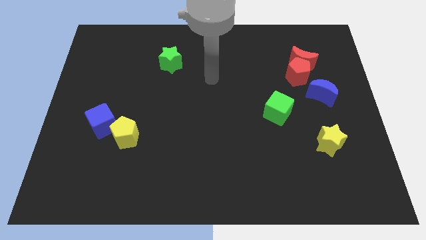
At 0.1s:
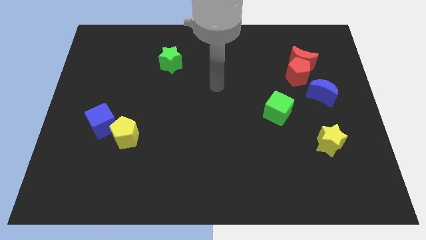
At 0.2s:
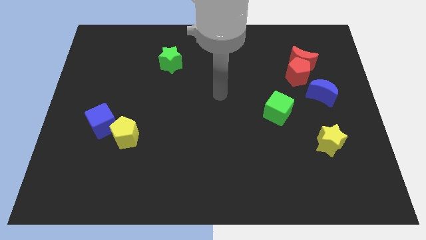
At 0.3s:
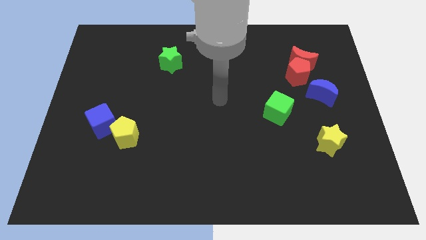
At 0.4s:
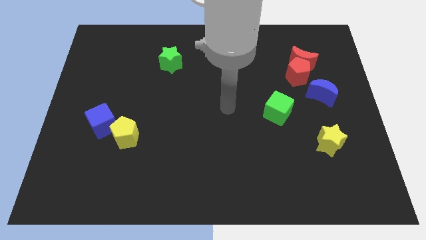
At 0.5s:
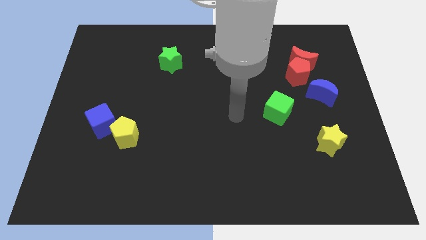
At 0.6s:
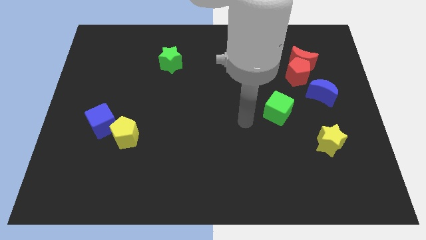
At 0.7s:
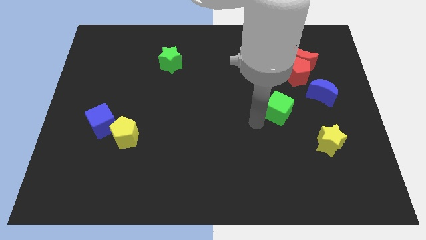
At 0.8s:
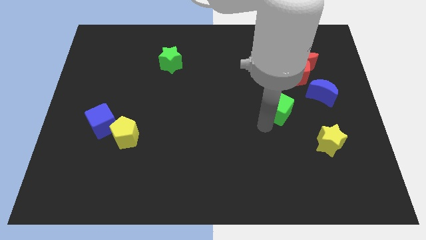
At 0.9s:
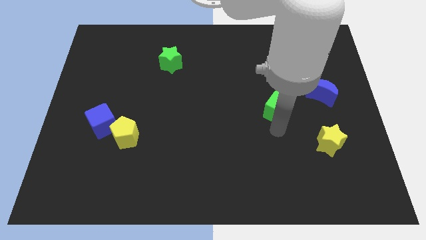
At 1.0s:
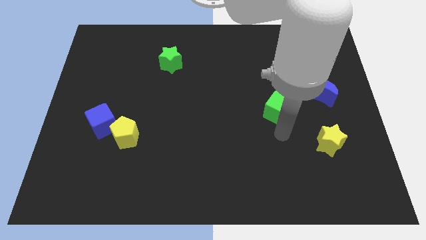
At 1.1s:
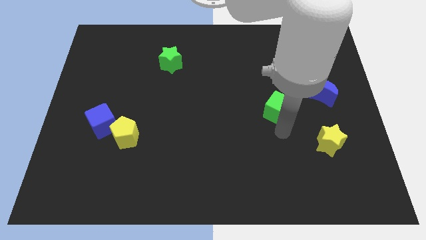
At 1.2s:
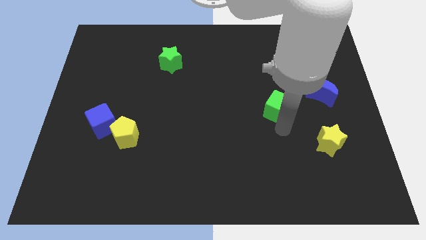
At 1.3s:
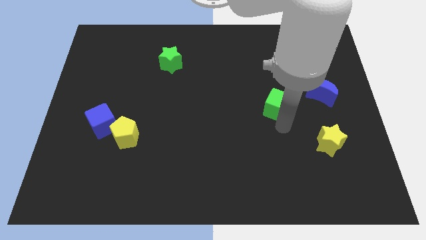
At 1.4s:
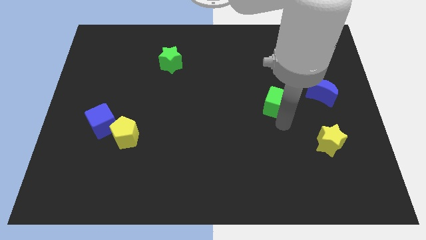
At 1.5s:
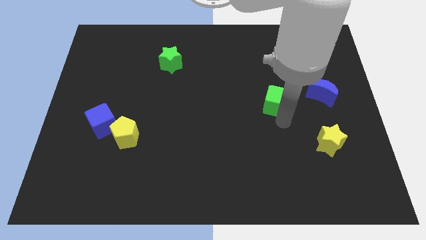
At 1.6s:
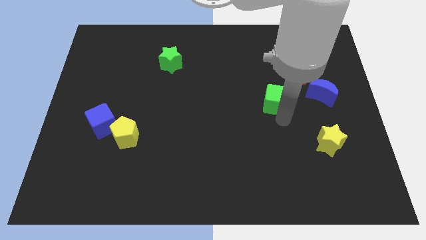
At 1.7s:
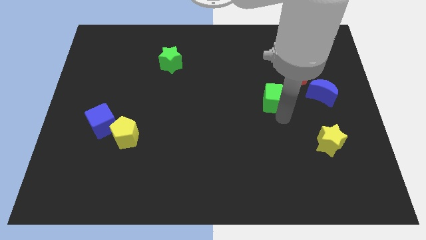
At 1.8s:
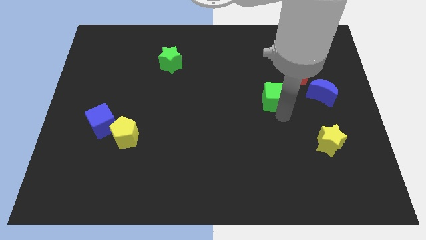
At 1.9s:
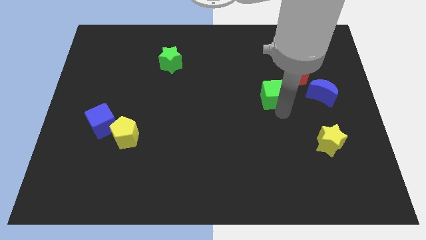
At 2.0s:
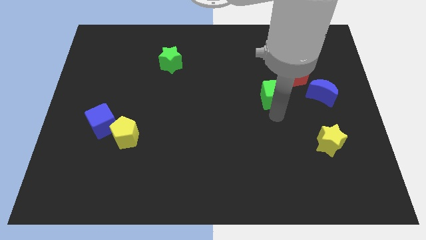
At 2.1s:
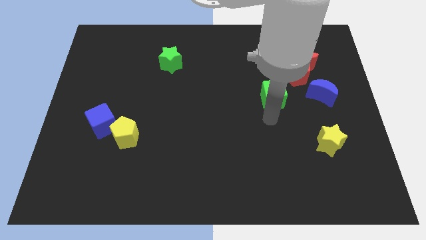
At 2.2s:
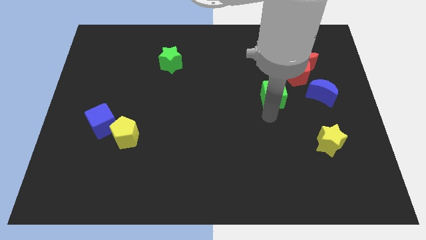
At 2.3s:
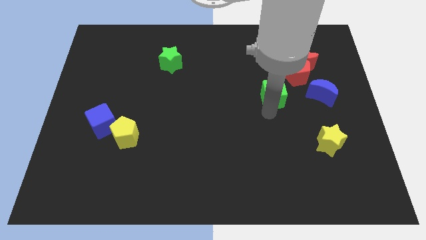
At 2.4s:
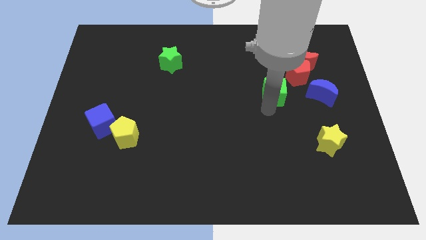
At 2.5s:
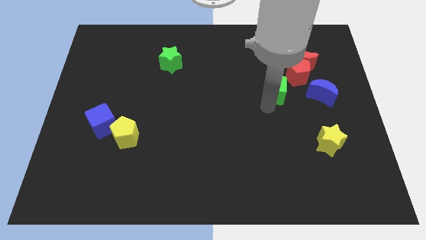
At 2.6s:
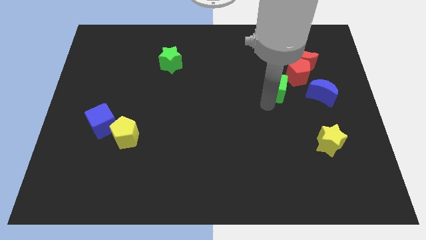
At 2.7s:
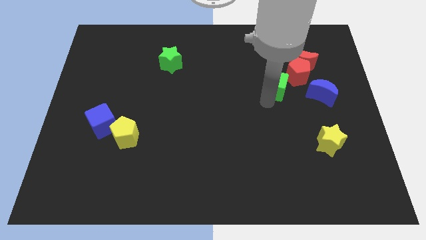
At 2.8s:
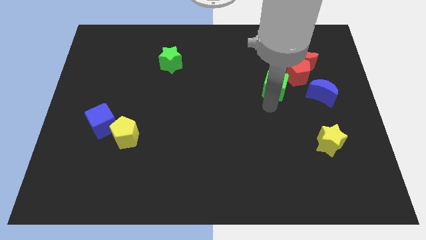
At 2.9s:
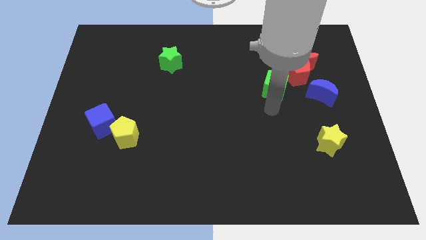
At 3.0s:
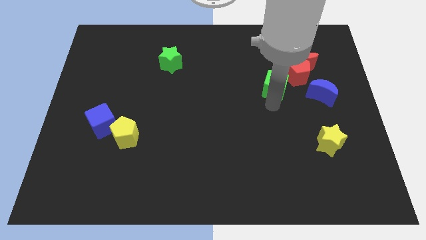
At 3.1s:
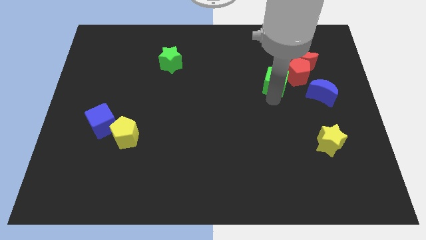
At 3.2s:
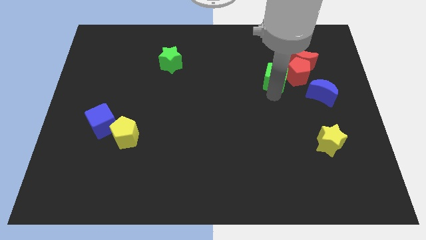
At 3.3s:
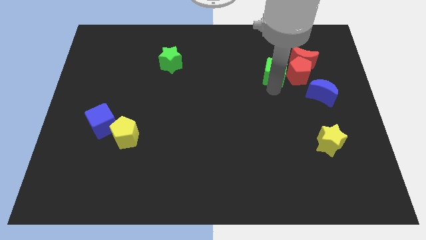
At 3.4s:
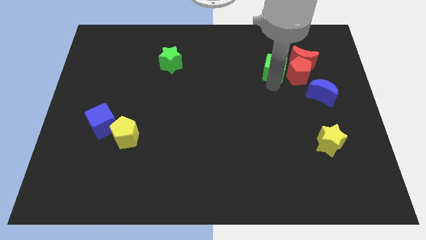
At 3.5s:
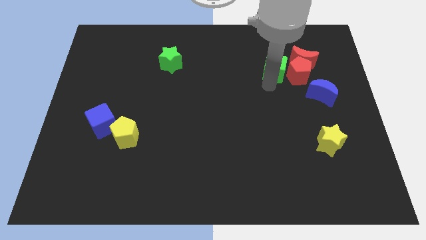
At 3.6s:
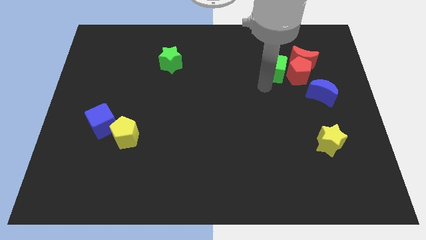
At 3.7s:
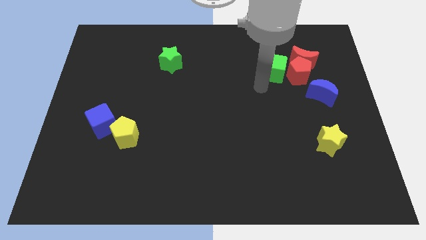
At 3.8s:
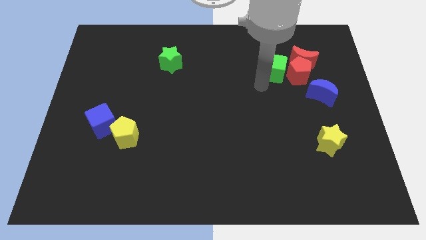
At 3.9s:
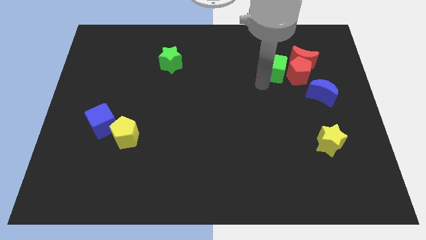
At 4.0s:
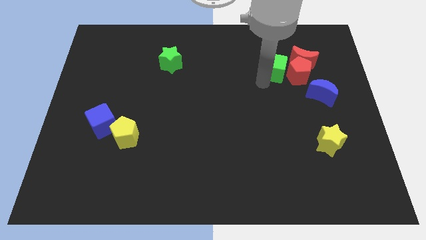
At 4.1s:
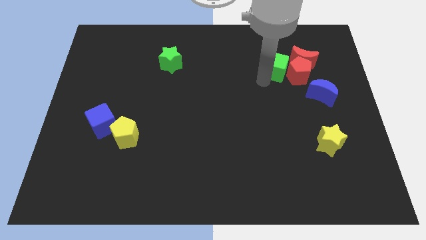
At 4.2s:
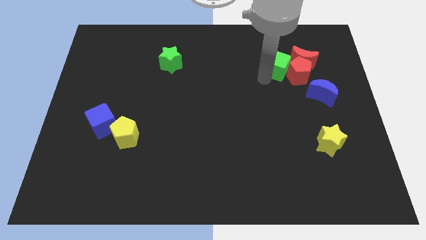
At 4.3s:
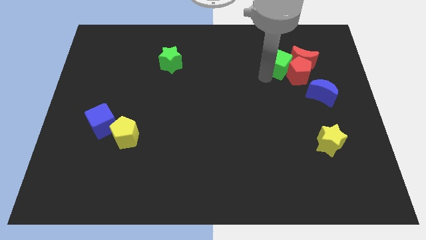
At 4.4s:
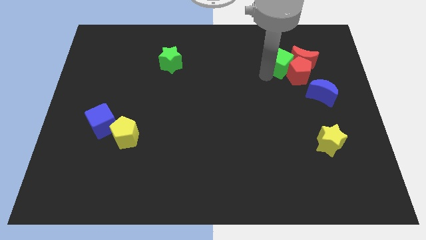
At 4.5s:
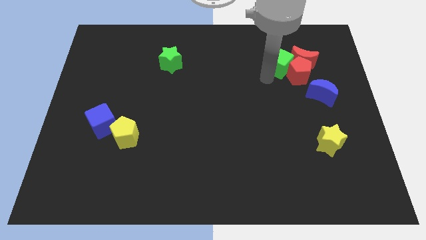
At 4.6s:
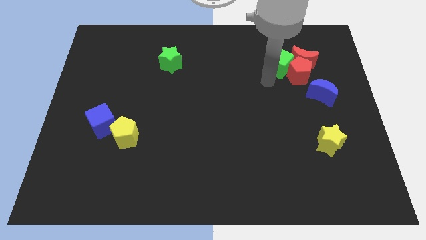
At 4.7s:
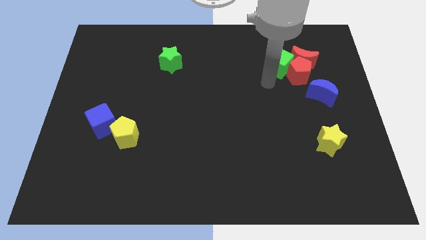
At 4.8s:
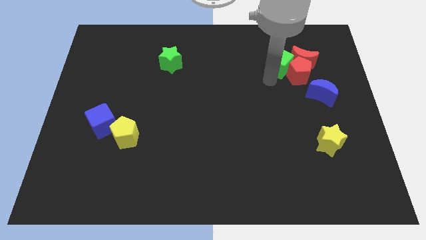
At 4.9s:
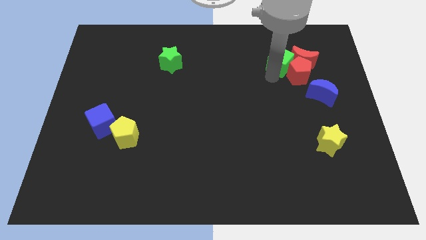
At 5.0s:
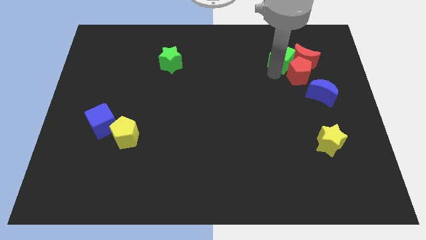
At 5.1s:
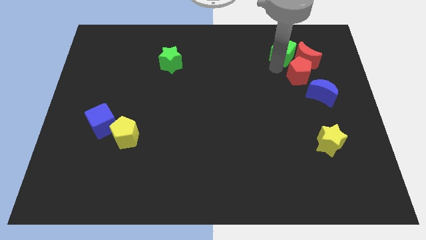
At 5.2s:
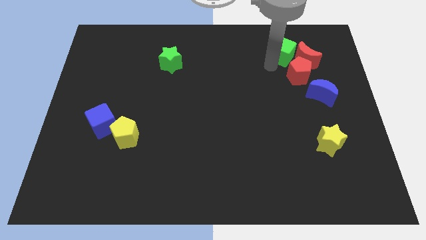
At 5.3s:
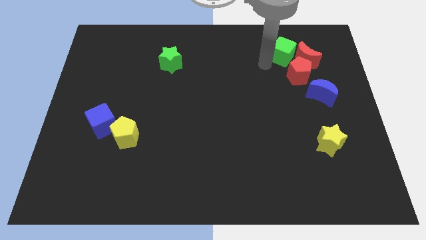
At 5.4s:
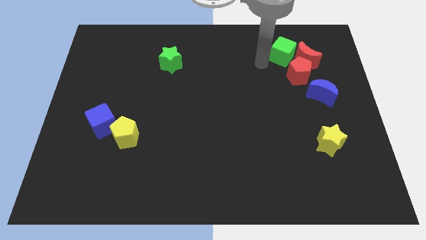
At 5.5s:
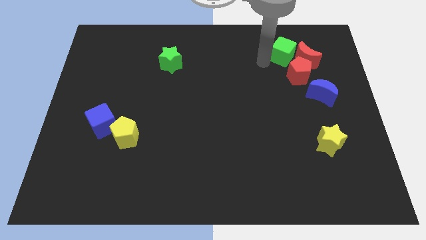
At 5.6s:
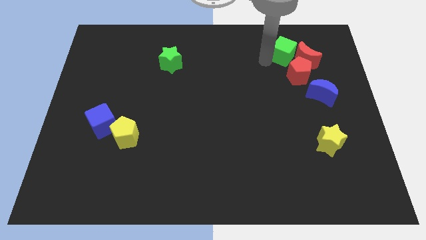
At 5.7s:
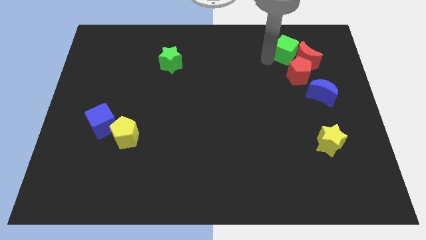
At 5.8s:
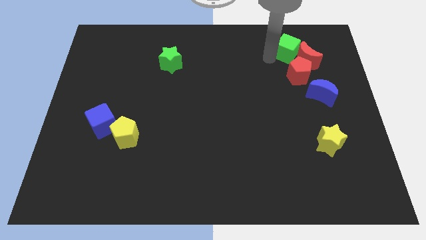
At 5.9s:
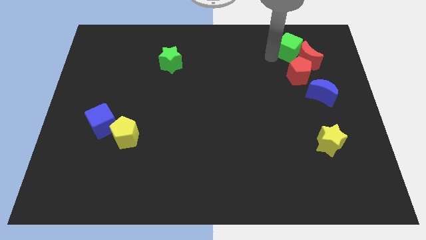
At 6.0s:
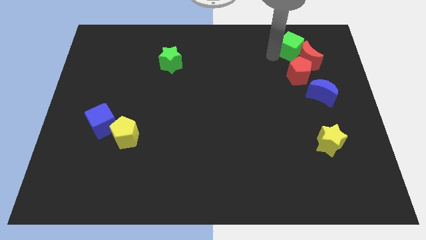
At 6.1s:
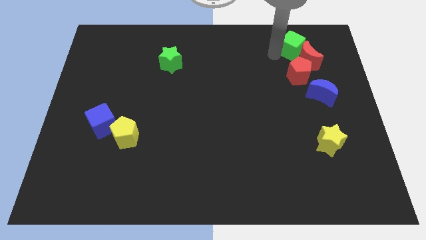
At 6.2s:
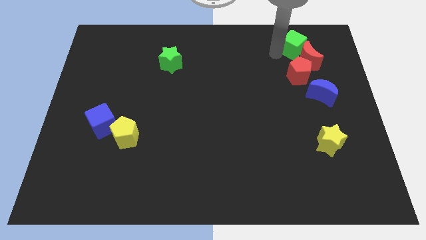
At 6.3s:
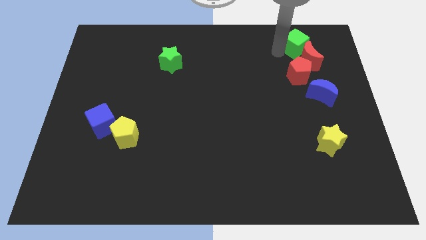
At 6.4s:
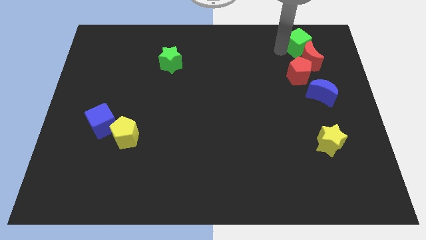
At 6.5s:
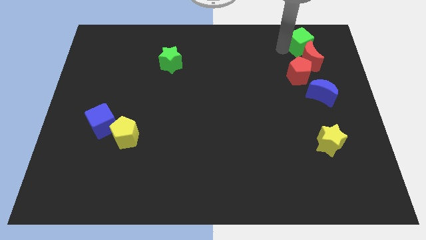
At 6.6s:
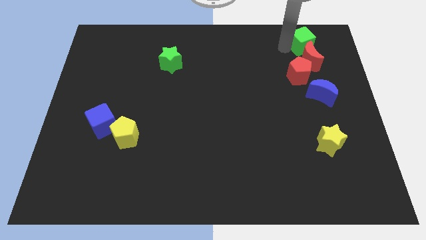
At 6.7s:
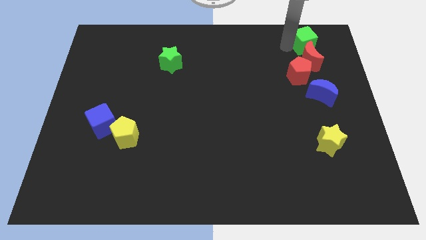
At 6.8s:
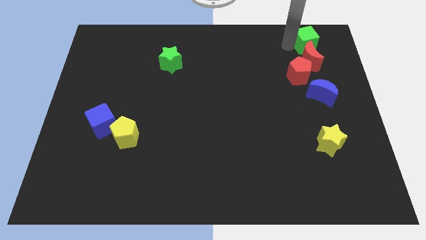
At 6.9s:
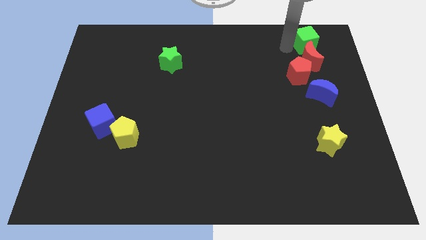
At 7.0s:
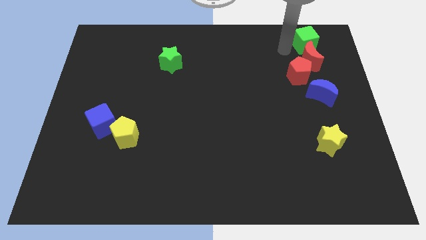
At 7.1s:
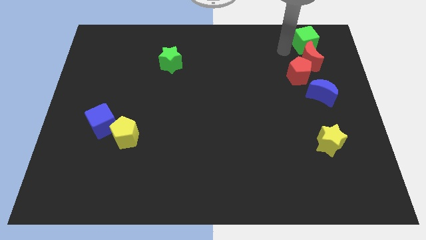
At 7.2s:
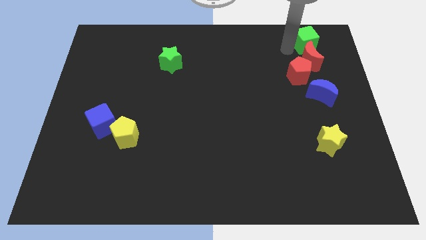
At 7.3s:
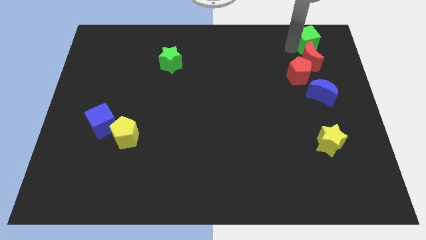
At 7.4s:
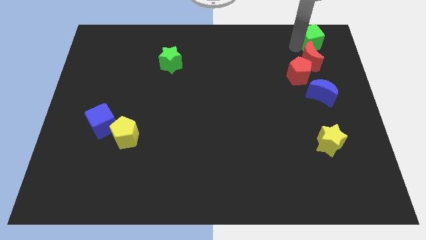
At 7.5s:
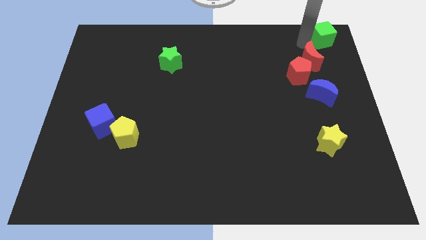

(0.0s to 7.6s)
push the green cube to the top right
